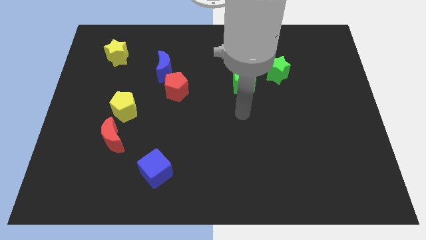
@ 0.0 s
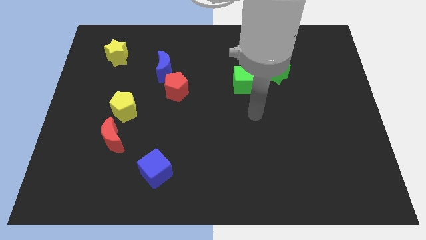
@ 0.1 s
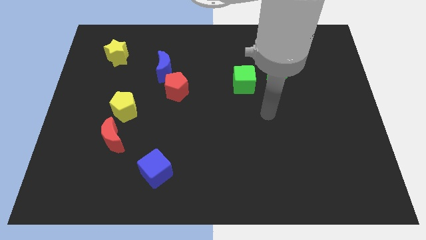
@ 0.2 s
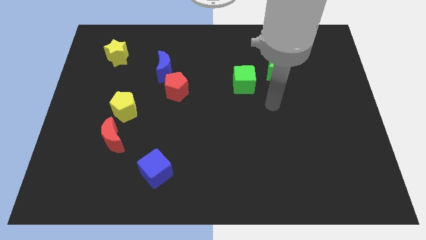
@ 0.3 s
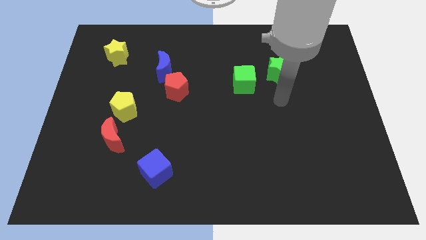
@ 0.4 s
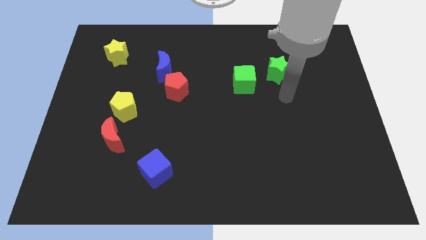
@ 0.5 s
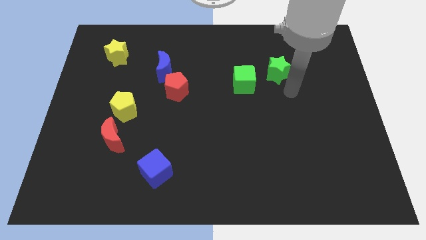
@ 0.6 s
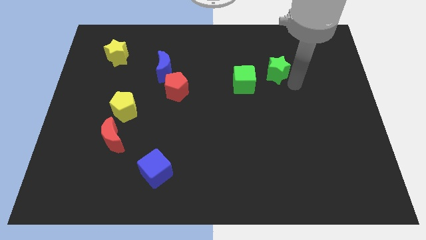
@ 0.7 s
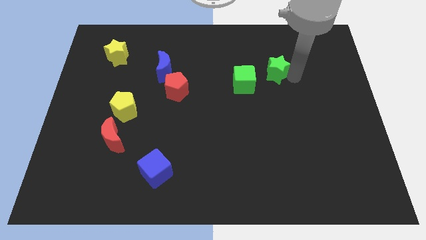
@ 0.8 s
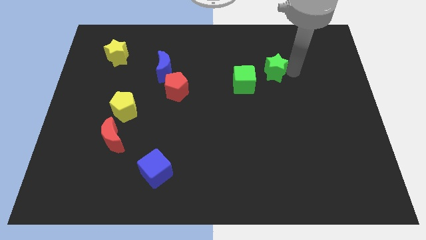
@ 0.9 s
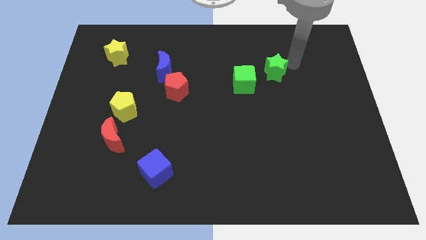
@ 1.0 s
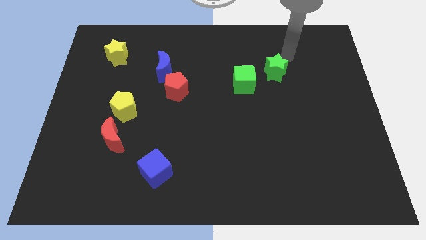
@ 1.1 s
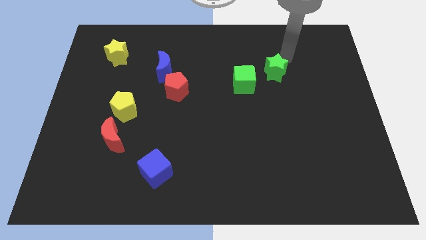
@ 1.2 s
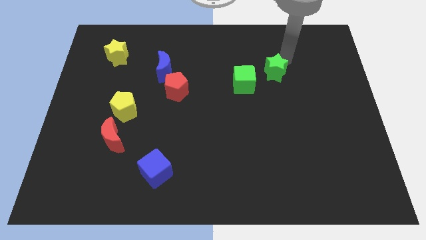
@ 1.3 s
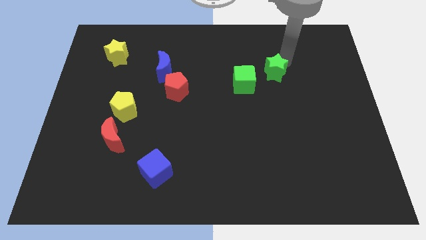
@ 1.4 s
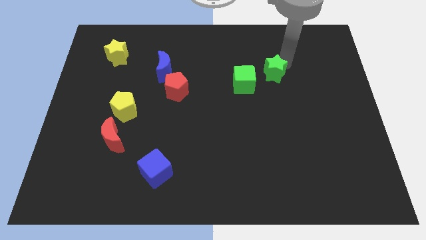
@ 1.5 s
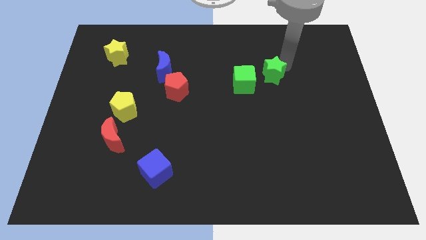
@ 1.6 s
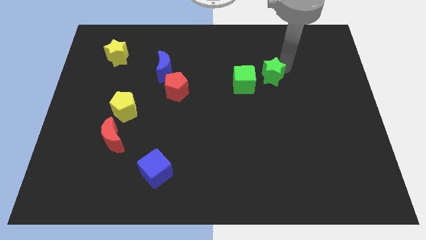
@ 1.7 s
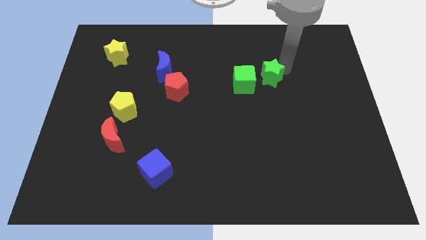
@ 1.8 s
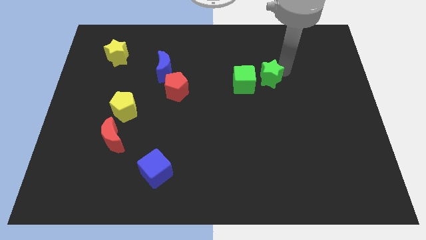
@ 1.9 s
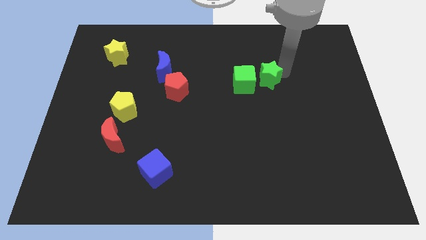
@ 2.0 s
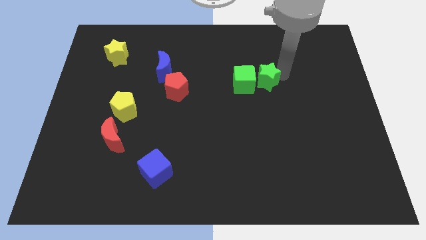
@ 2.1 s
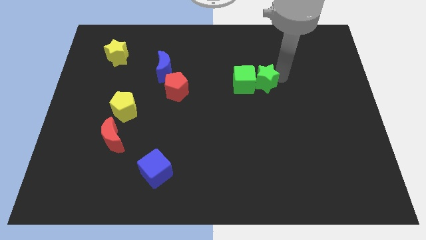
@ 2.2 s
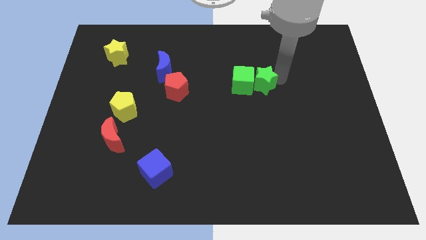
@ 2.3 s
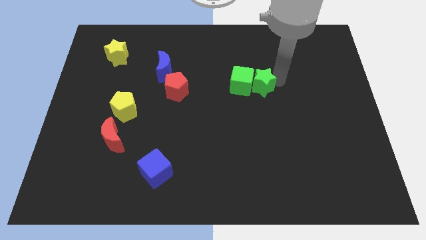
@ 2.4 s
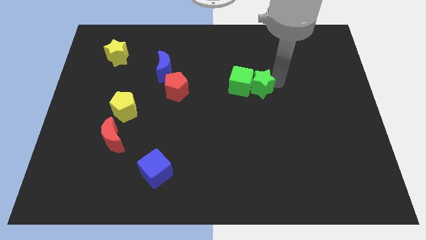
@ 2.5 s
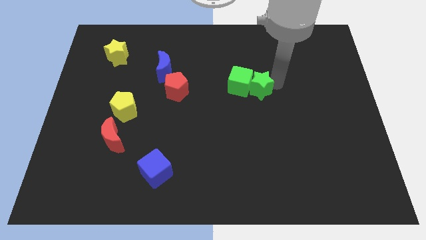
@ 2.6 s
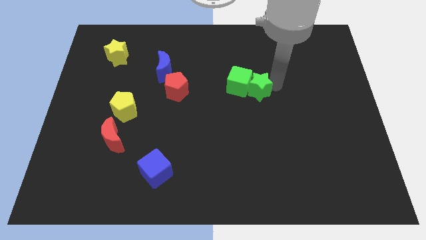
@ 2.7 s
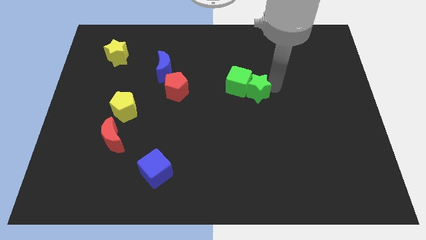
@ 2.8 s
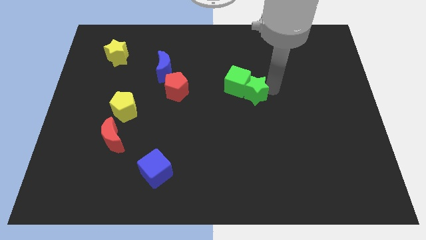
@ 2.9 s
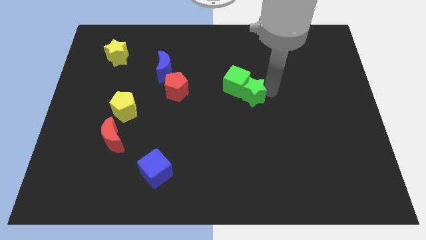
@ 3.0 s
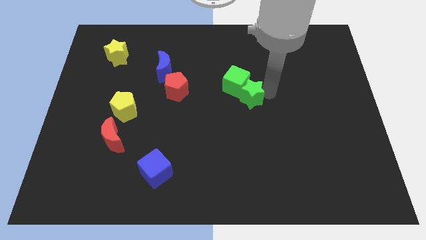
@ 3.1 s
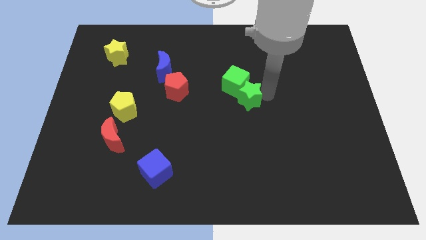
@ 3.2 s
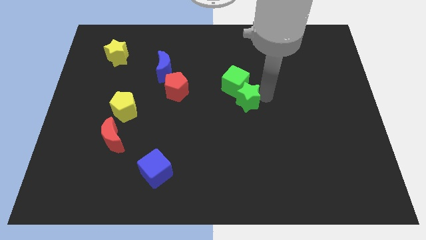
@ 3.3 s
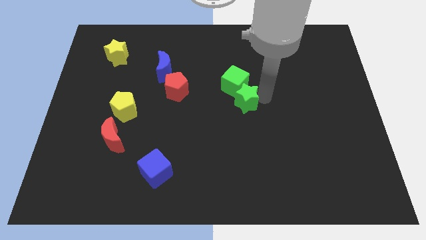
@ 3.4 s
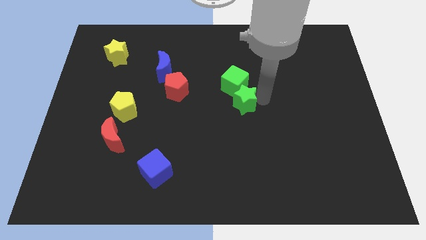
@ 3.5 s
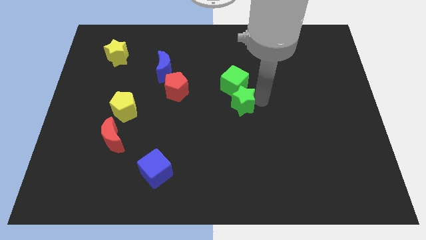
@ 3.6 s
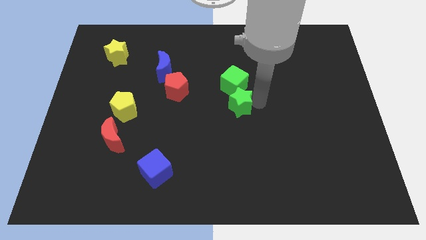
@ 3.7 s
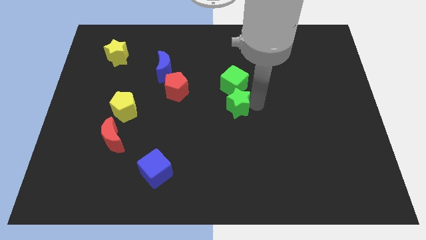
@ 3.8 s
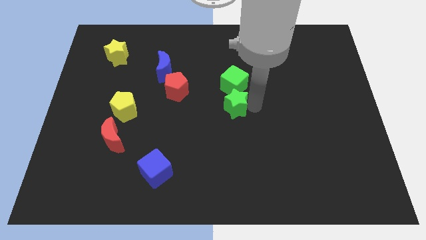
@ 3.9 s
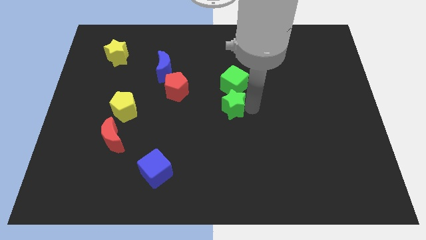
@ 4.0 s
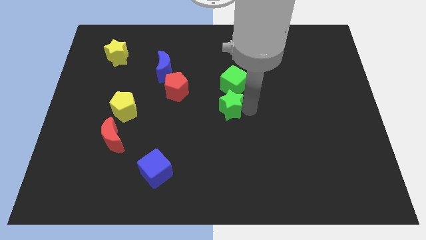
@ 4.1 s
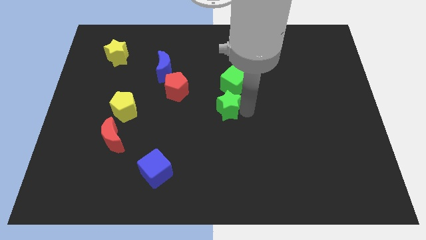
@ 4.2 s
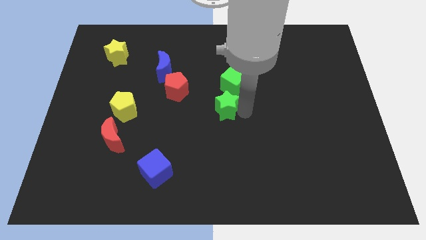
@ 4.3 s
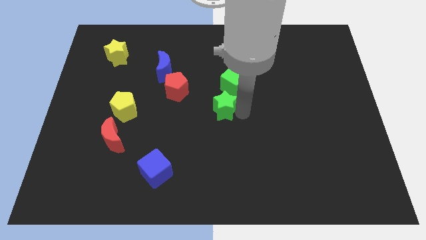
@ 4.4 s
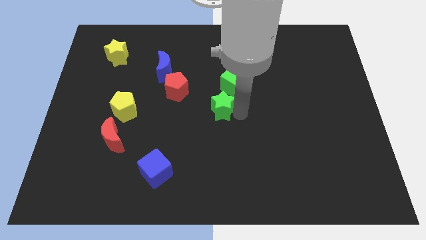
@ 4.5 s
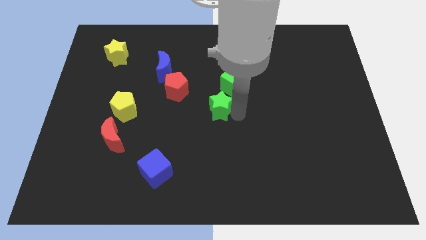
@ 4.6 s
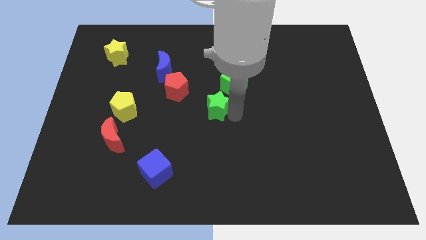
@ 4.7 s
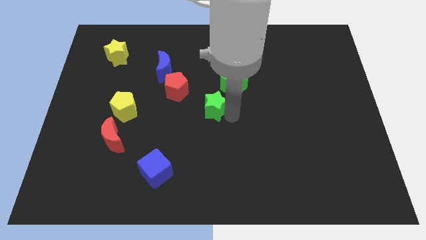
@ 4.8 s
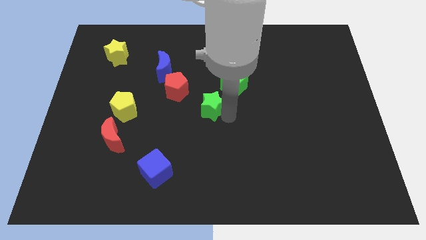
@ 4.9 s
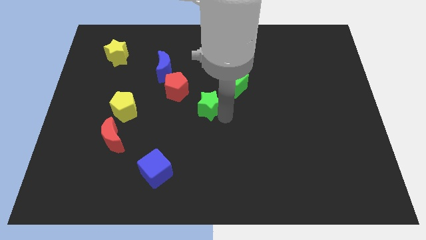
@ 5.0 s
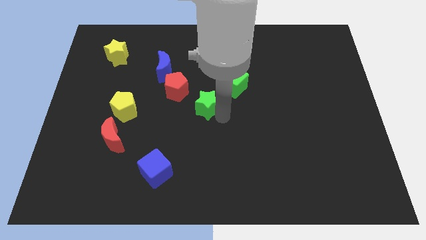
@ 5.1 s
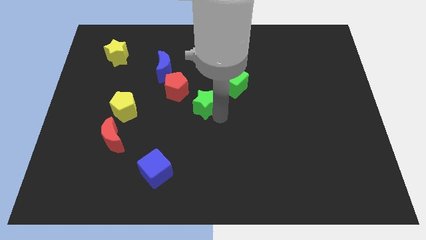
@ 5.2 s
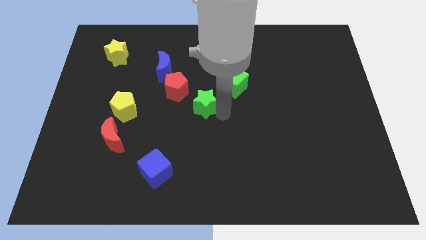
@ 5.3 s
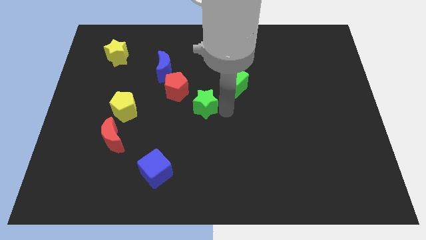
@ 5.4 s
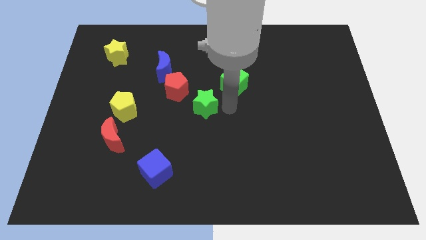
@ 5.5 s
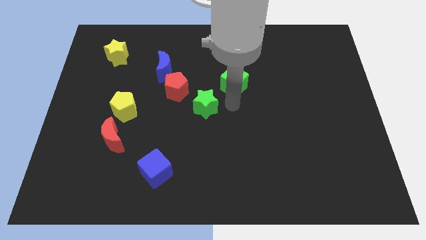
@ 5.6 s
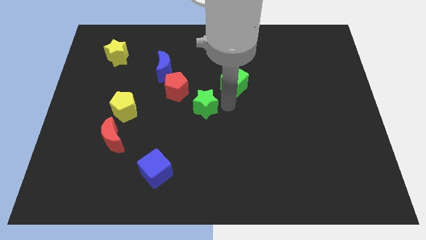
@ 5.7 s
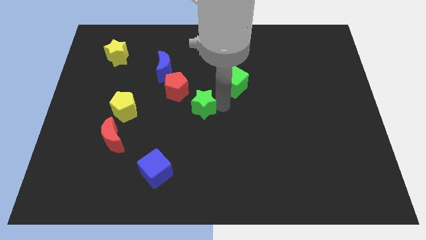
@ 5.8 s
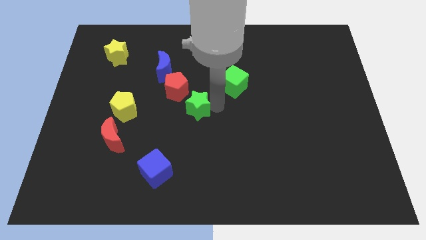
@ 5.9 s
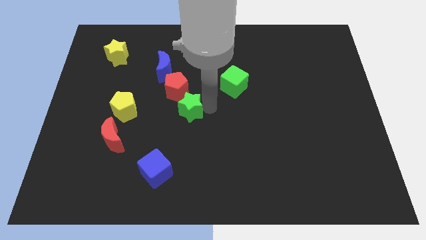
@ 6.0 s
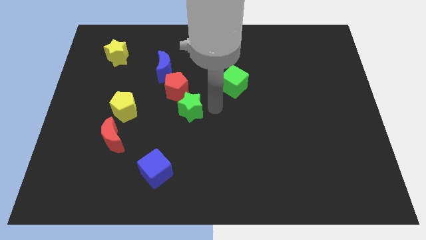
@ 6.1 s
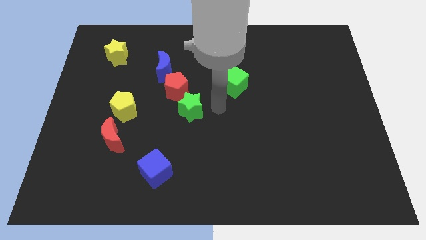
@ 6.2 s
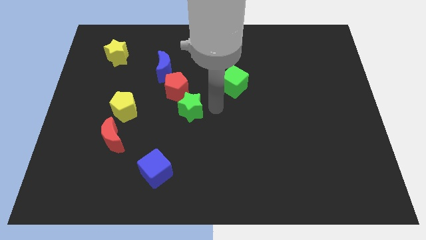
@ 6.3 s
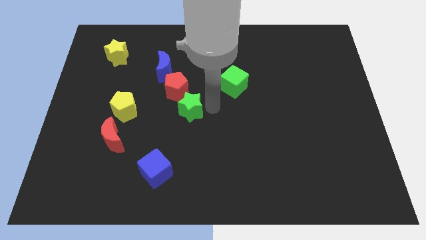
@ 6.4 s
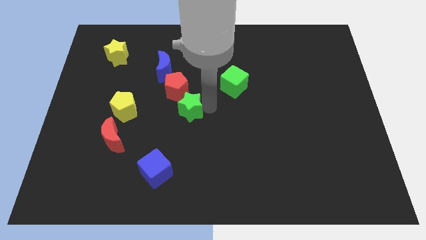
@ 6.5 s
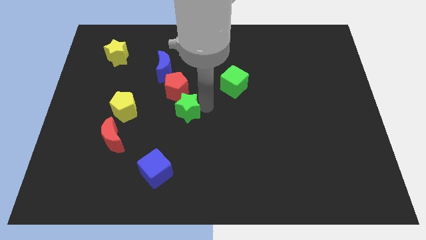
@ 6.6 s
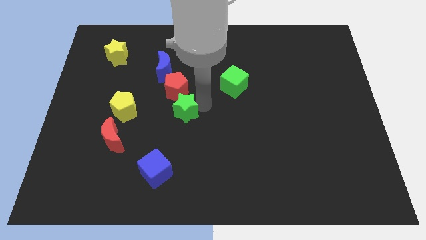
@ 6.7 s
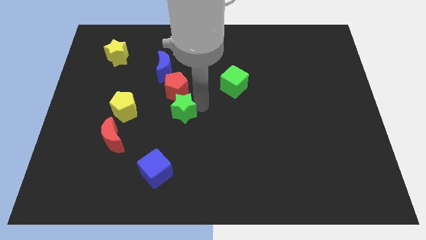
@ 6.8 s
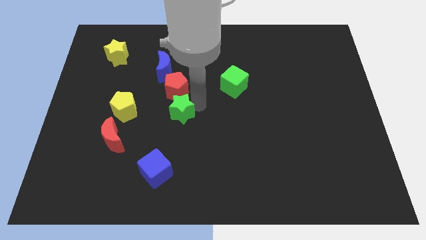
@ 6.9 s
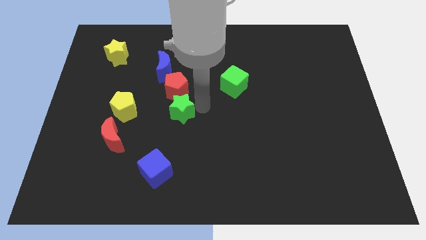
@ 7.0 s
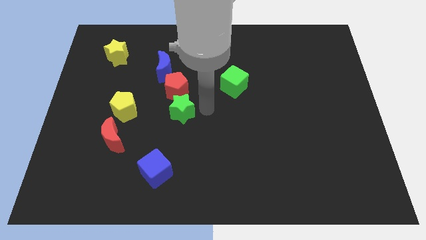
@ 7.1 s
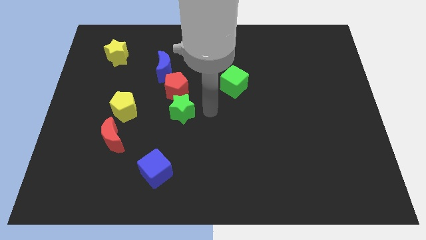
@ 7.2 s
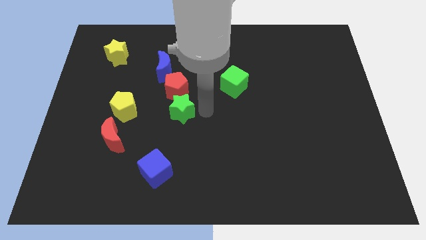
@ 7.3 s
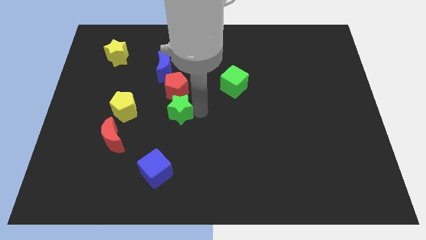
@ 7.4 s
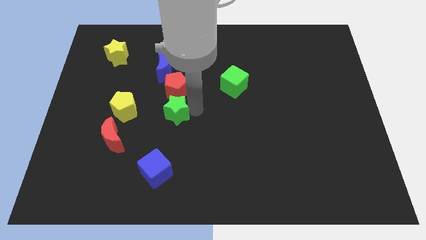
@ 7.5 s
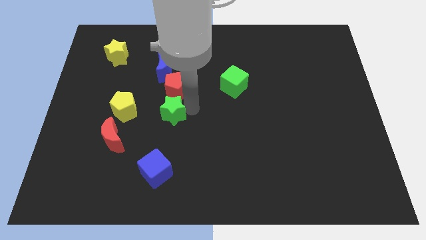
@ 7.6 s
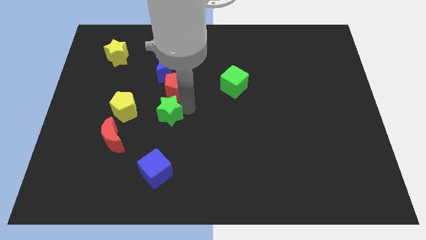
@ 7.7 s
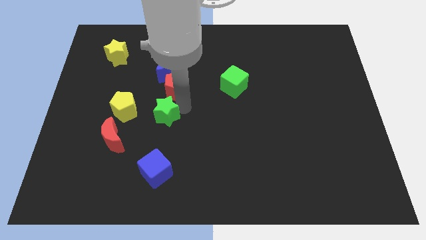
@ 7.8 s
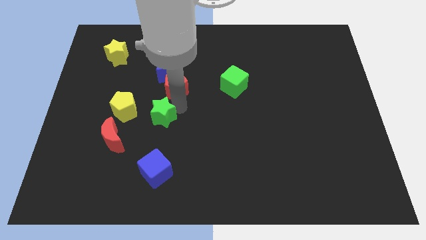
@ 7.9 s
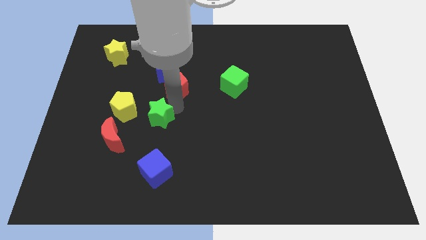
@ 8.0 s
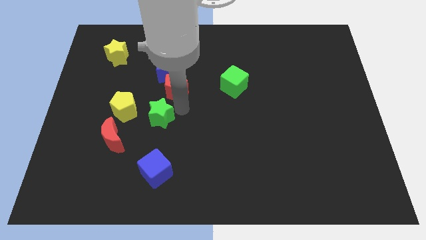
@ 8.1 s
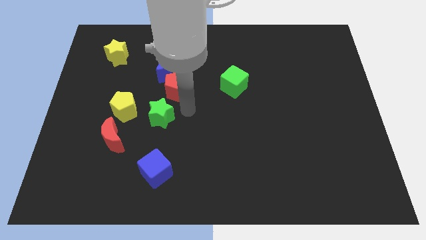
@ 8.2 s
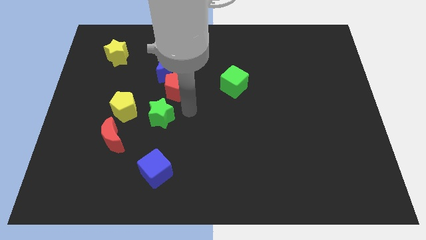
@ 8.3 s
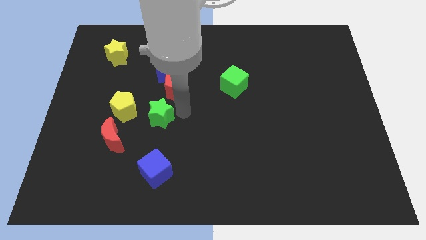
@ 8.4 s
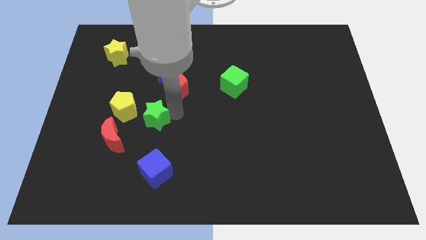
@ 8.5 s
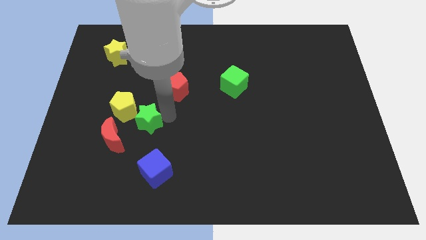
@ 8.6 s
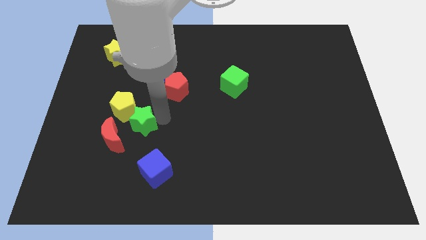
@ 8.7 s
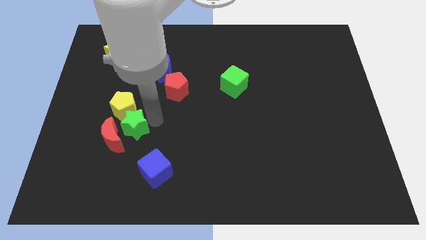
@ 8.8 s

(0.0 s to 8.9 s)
slide the green star next to the red moon
